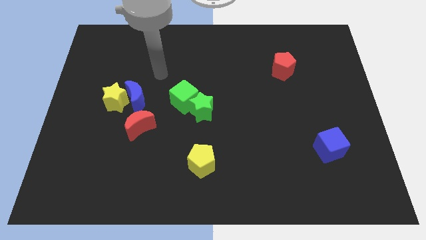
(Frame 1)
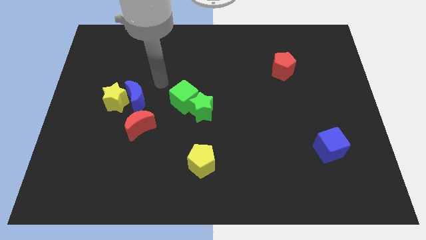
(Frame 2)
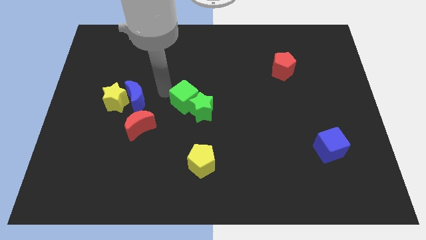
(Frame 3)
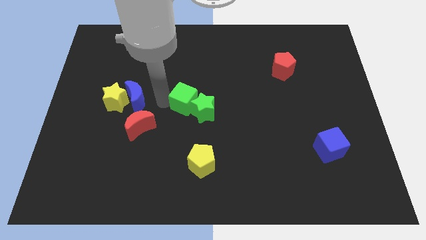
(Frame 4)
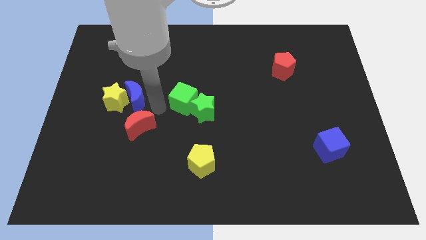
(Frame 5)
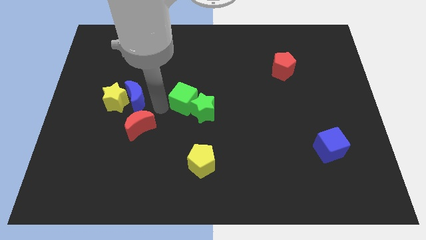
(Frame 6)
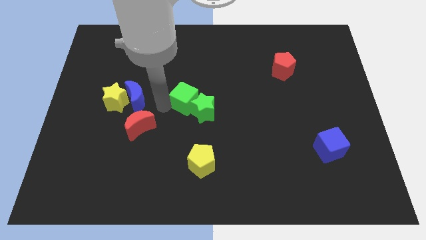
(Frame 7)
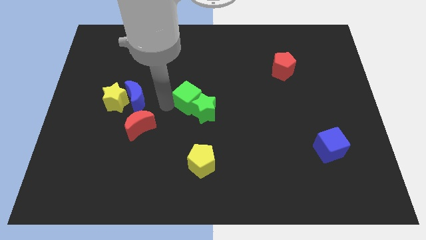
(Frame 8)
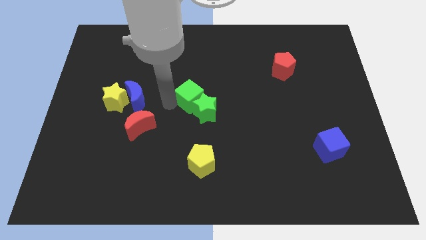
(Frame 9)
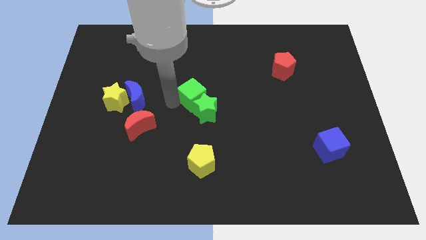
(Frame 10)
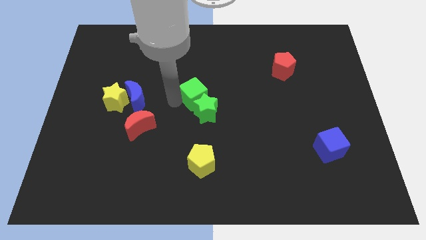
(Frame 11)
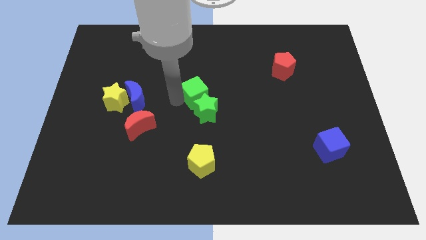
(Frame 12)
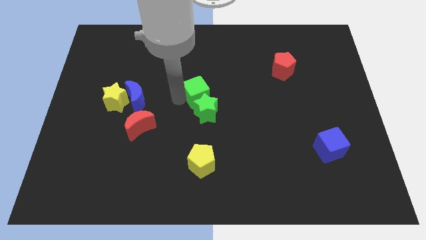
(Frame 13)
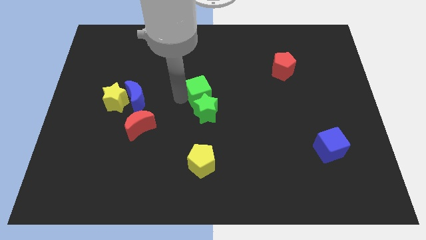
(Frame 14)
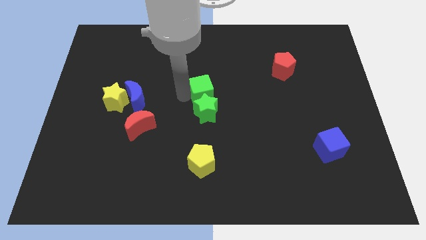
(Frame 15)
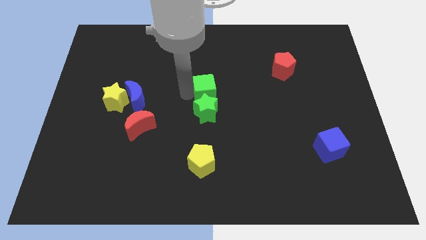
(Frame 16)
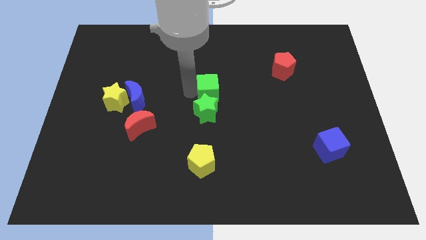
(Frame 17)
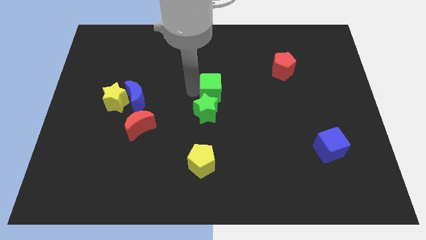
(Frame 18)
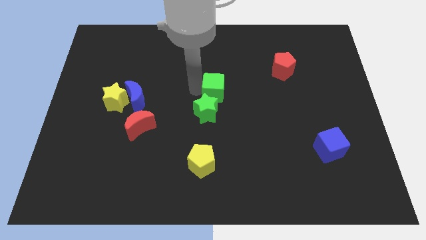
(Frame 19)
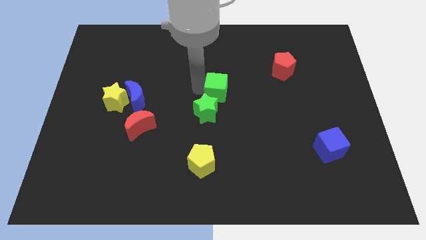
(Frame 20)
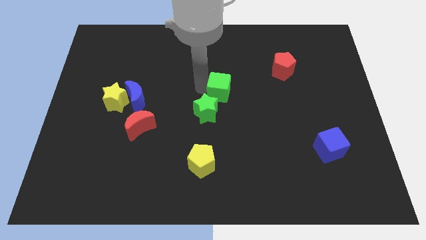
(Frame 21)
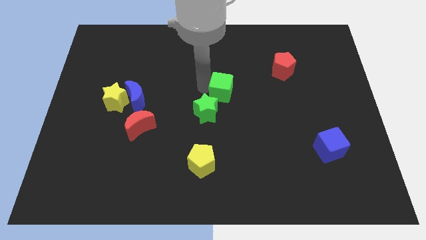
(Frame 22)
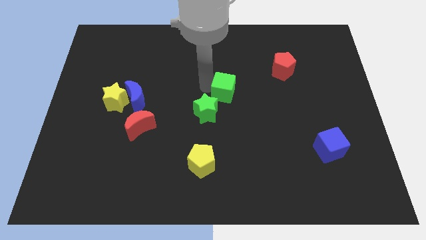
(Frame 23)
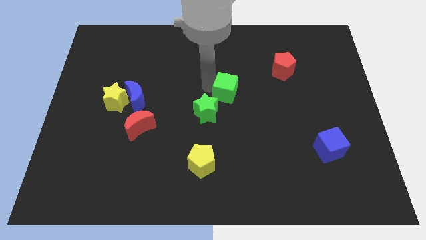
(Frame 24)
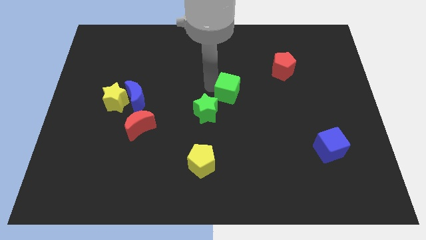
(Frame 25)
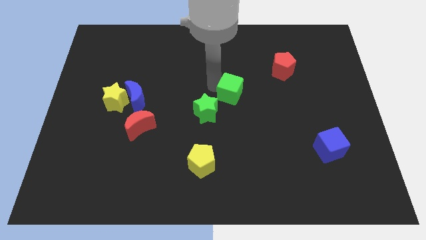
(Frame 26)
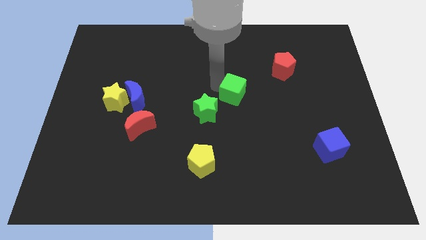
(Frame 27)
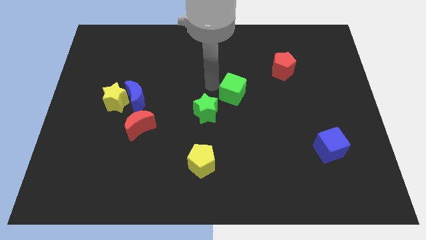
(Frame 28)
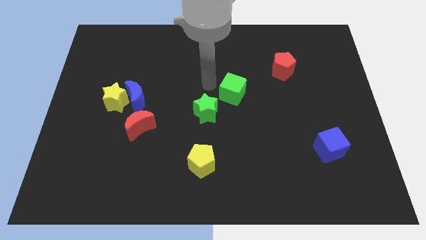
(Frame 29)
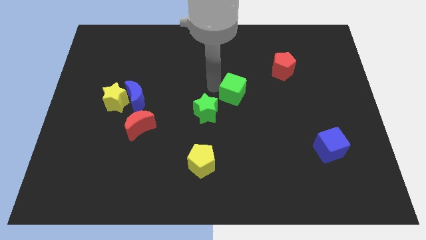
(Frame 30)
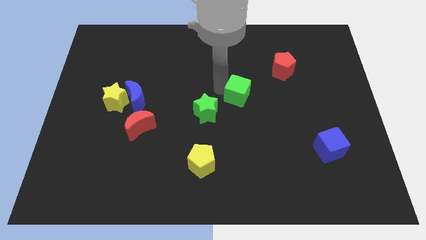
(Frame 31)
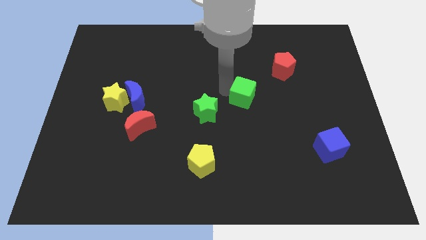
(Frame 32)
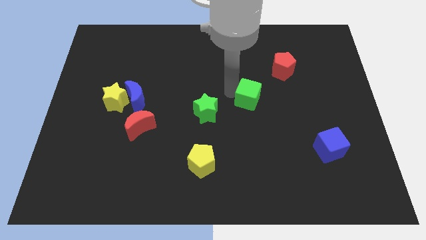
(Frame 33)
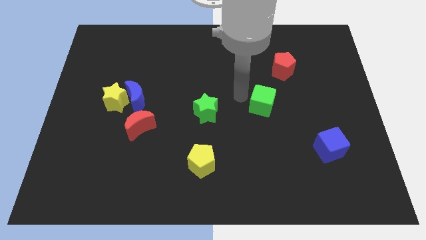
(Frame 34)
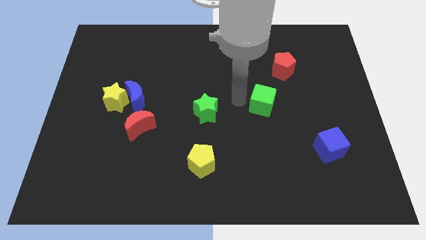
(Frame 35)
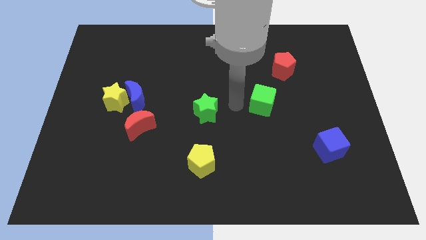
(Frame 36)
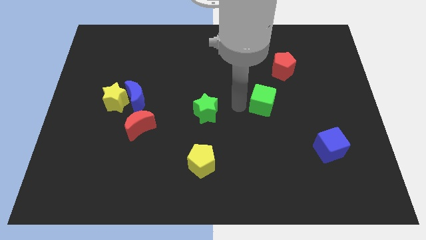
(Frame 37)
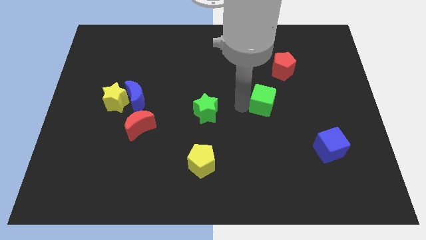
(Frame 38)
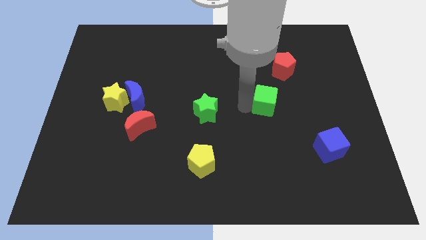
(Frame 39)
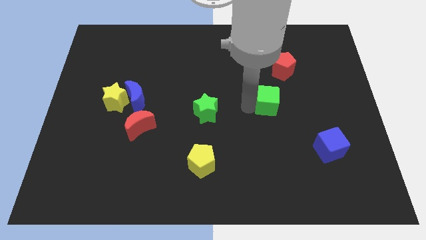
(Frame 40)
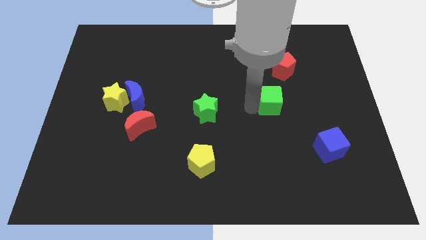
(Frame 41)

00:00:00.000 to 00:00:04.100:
push the green cube to the right

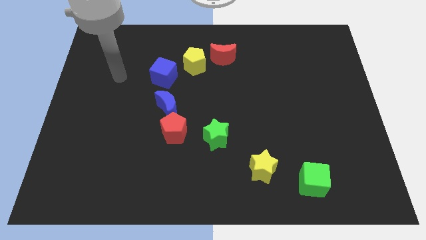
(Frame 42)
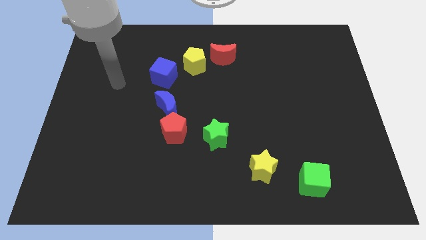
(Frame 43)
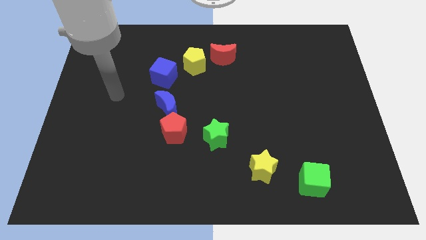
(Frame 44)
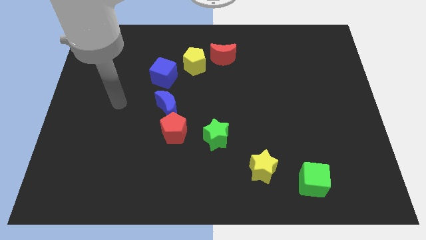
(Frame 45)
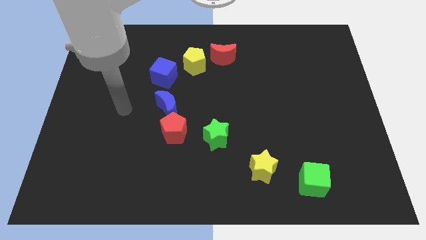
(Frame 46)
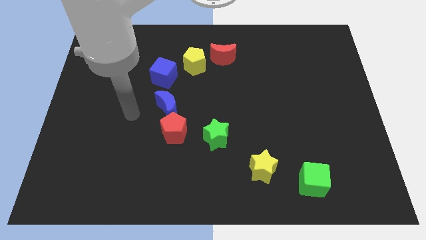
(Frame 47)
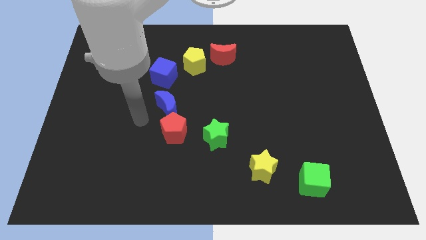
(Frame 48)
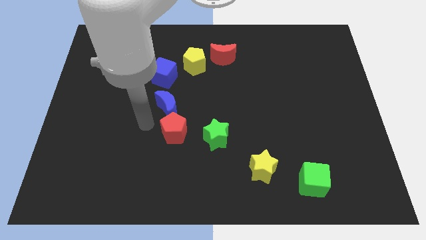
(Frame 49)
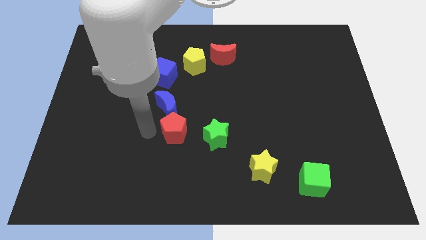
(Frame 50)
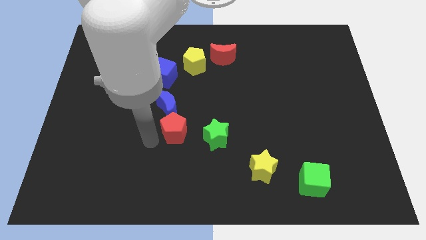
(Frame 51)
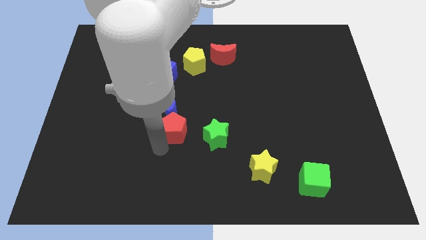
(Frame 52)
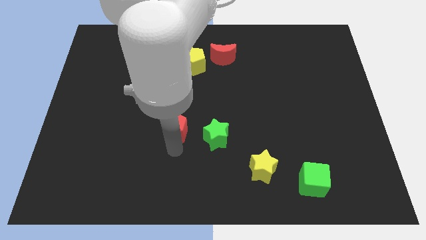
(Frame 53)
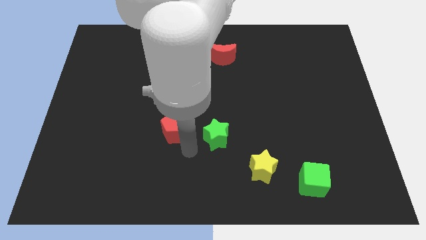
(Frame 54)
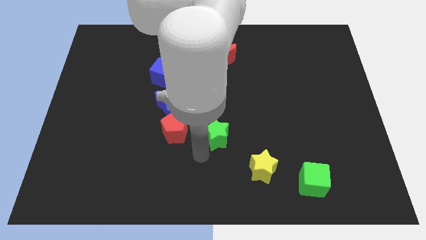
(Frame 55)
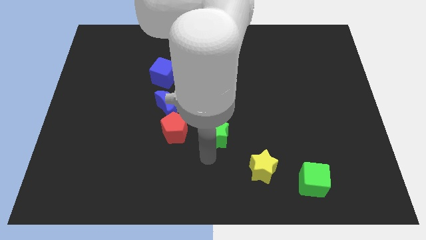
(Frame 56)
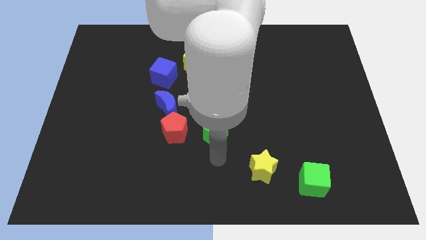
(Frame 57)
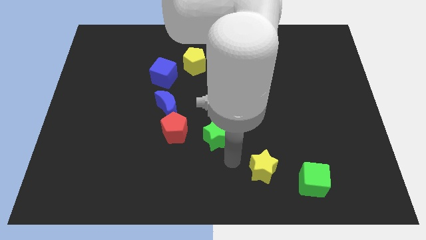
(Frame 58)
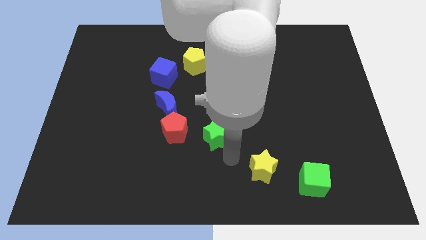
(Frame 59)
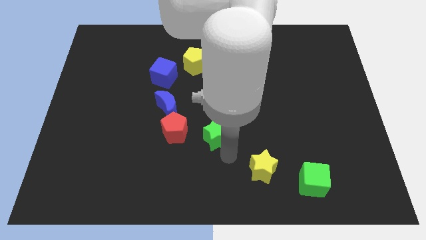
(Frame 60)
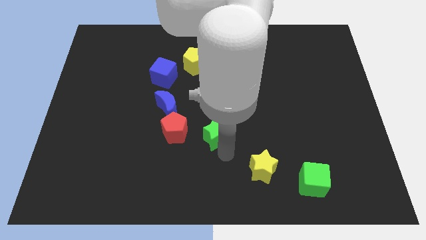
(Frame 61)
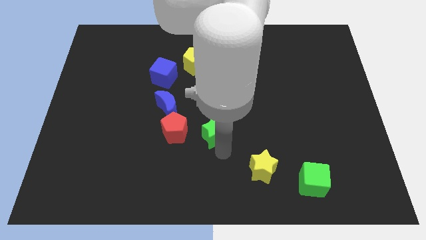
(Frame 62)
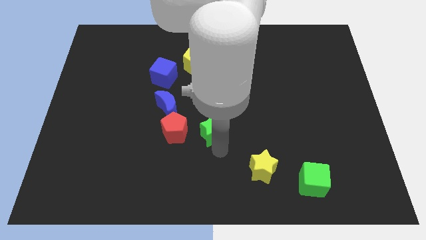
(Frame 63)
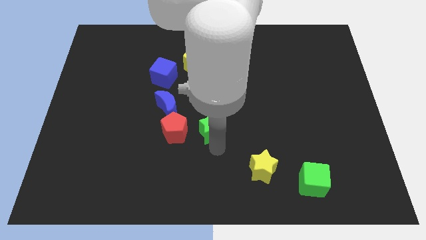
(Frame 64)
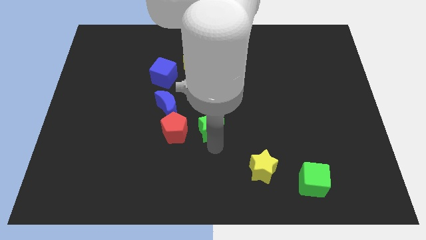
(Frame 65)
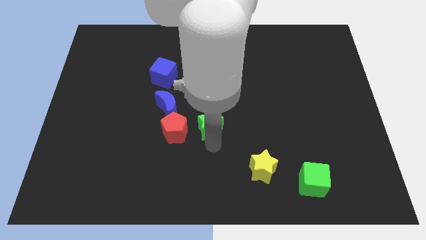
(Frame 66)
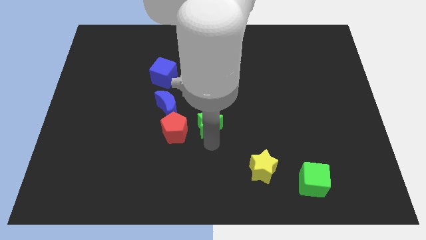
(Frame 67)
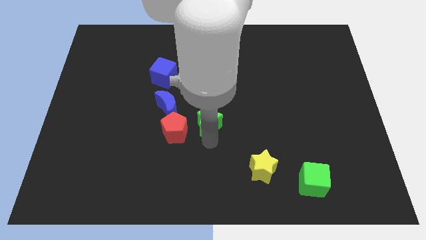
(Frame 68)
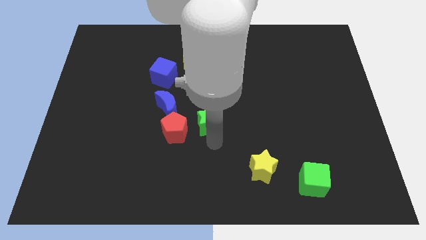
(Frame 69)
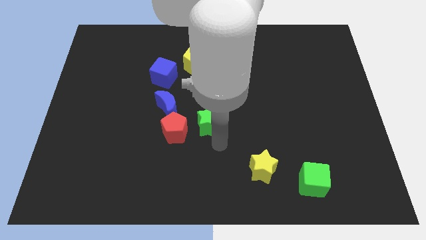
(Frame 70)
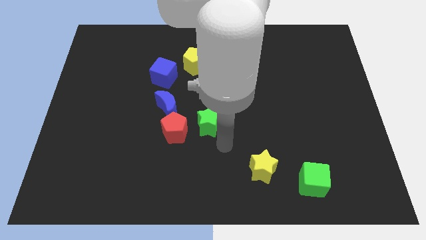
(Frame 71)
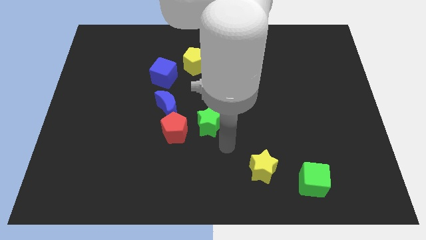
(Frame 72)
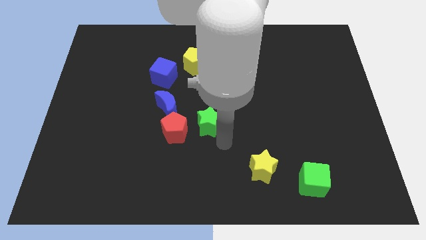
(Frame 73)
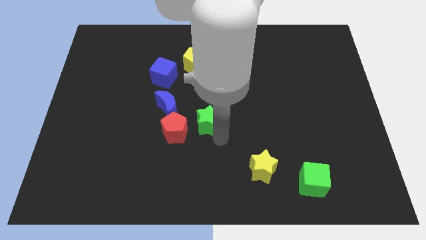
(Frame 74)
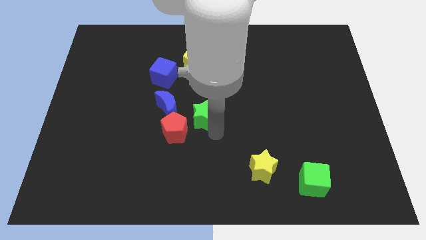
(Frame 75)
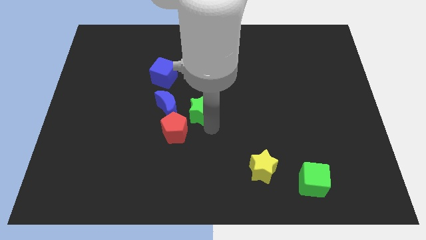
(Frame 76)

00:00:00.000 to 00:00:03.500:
push the green star a little diagonally upwards and left

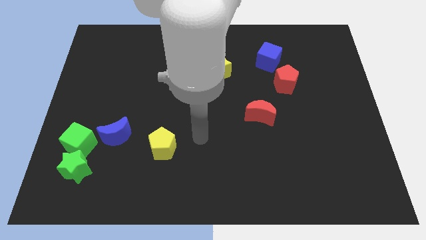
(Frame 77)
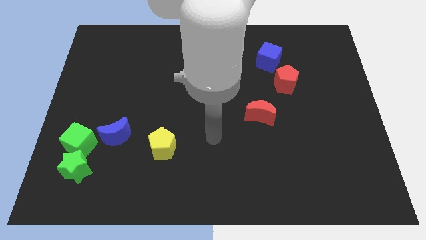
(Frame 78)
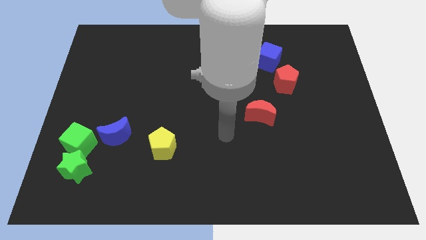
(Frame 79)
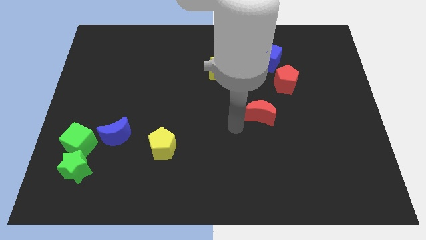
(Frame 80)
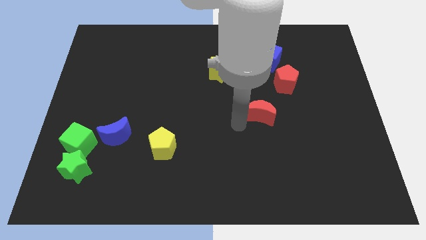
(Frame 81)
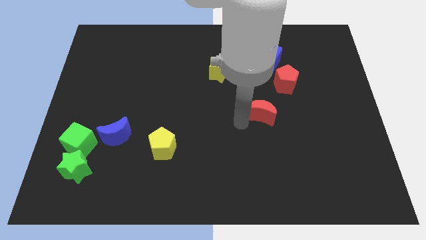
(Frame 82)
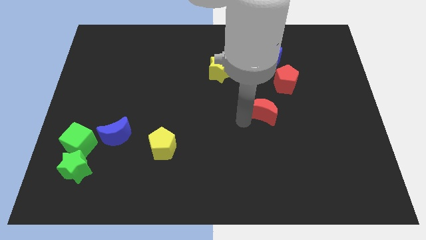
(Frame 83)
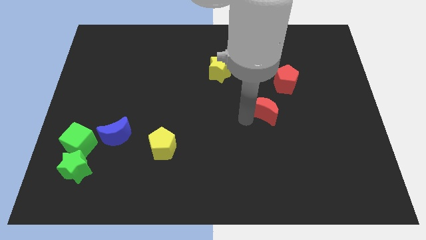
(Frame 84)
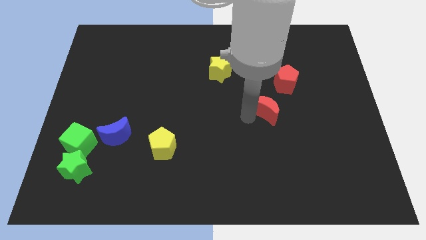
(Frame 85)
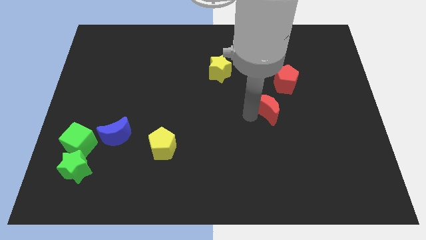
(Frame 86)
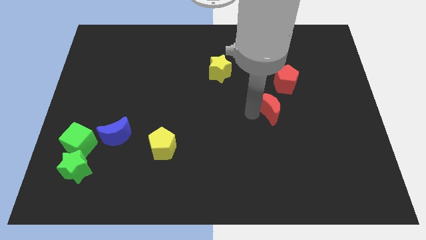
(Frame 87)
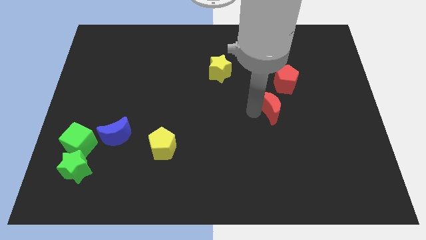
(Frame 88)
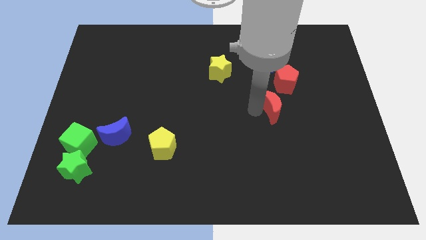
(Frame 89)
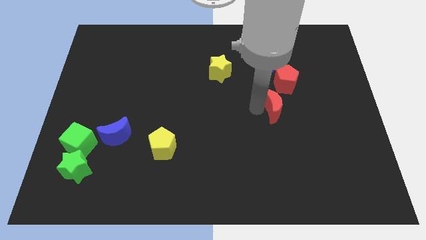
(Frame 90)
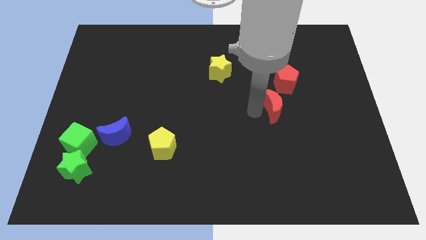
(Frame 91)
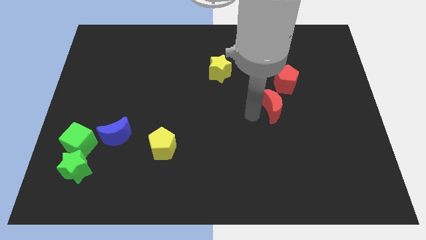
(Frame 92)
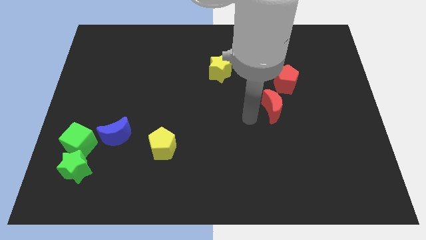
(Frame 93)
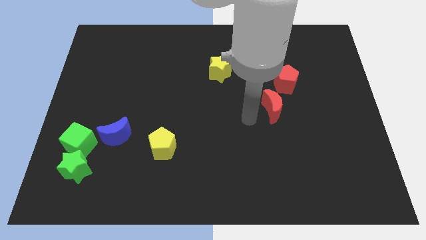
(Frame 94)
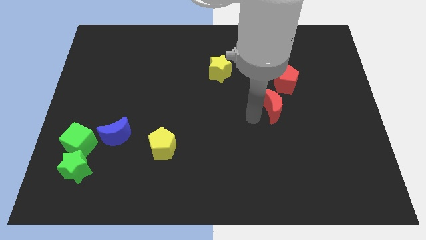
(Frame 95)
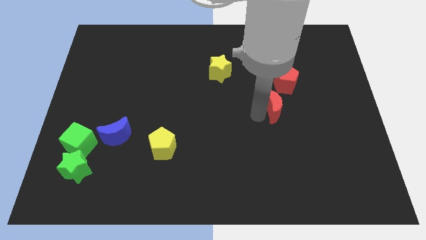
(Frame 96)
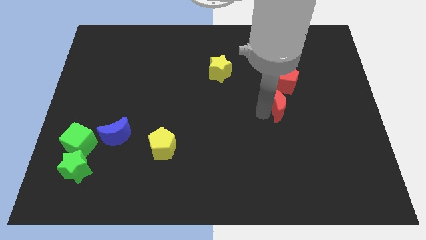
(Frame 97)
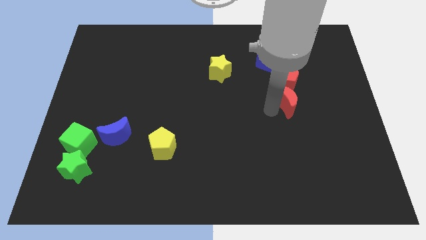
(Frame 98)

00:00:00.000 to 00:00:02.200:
move the red moon upwards and right diagonally a little
